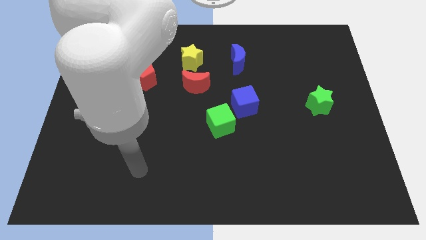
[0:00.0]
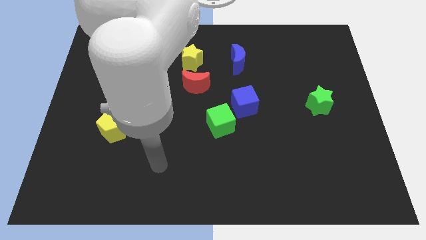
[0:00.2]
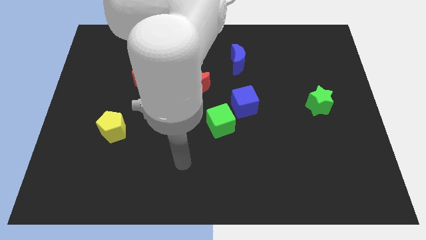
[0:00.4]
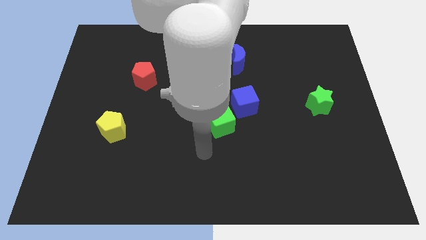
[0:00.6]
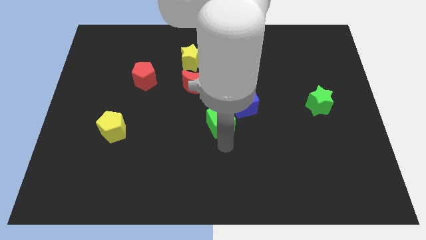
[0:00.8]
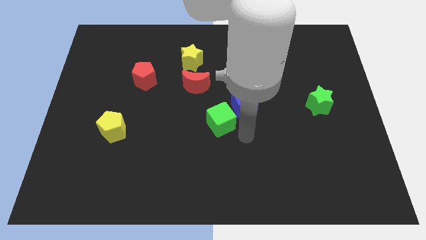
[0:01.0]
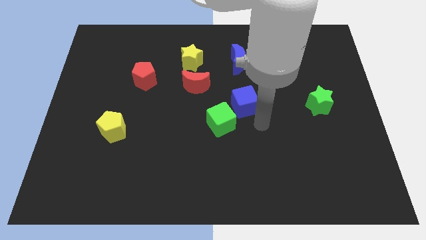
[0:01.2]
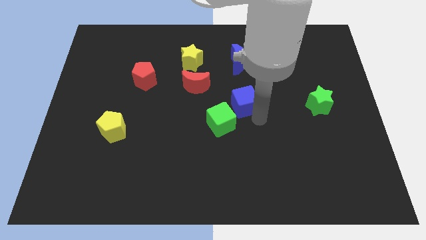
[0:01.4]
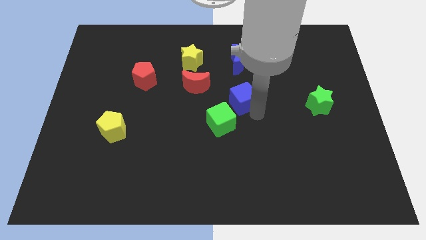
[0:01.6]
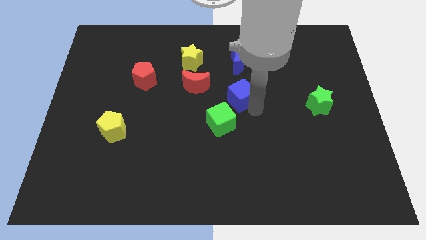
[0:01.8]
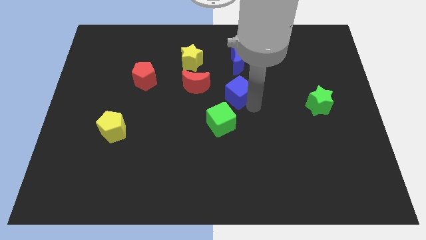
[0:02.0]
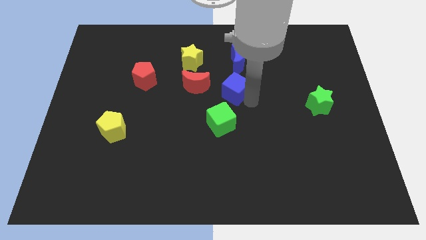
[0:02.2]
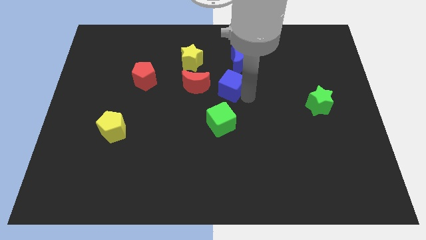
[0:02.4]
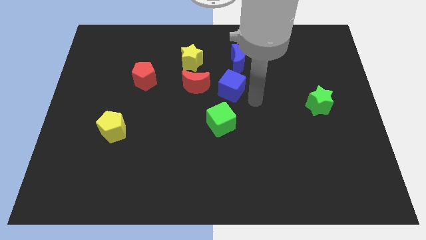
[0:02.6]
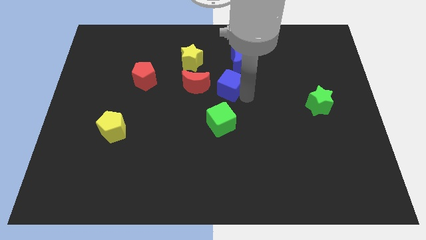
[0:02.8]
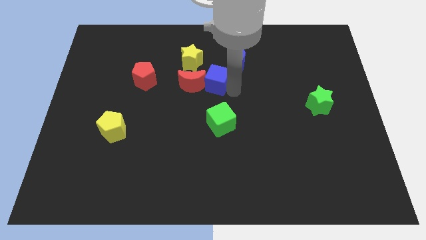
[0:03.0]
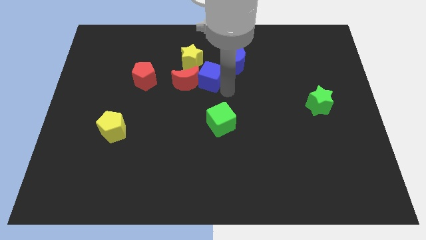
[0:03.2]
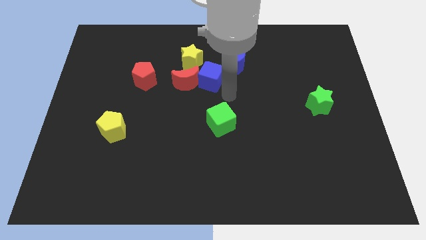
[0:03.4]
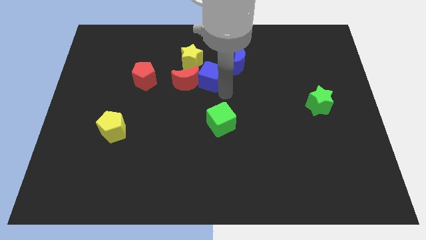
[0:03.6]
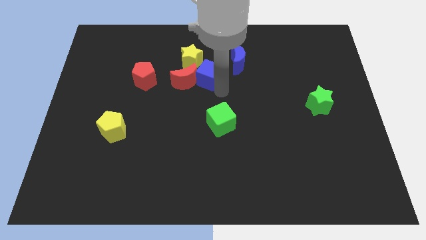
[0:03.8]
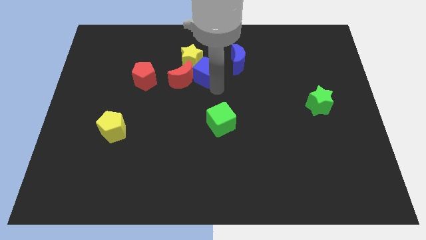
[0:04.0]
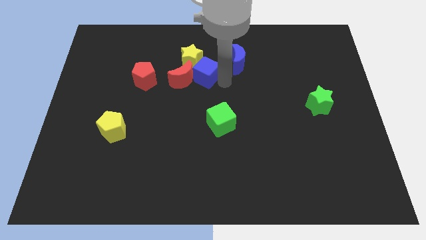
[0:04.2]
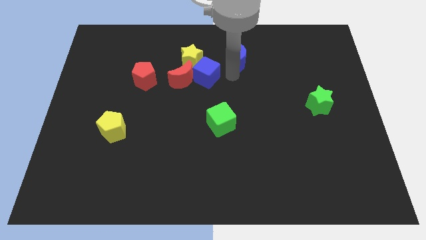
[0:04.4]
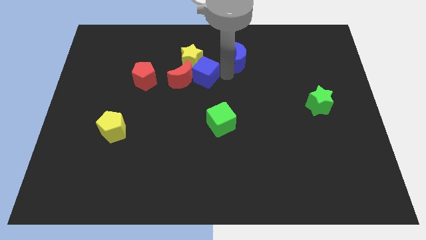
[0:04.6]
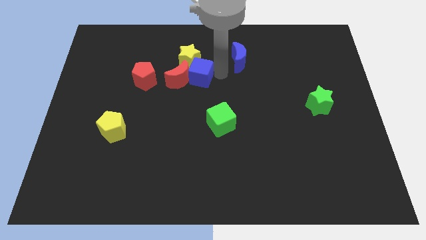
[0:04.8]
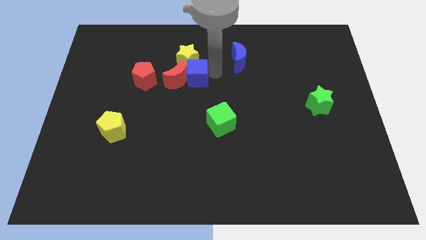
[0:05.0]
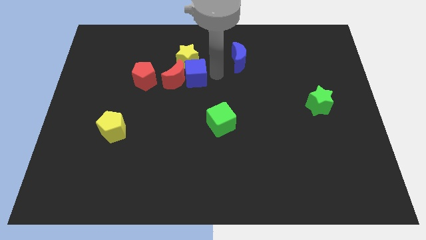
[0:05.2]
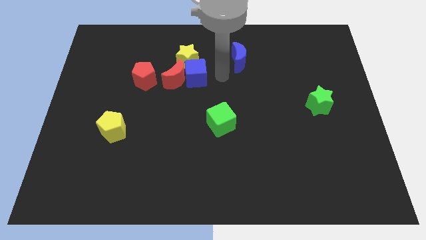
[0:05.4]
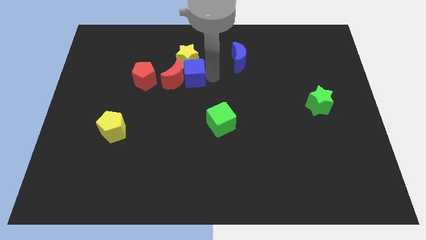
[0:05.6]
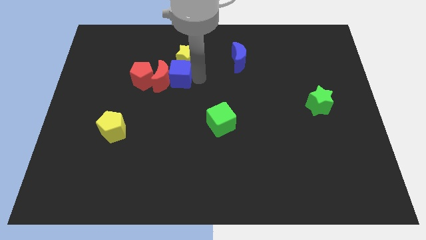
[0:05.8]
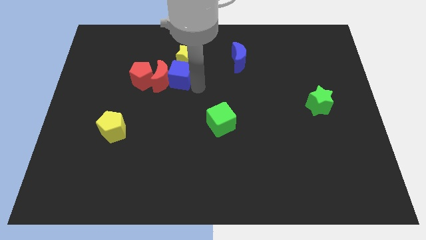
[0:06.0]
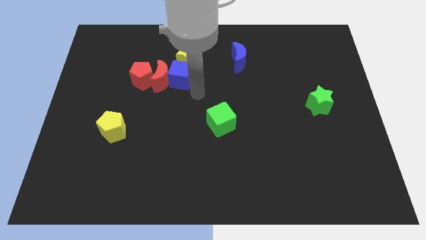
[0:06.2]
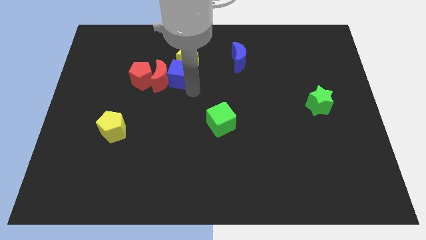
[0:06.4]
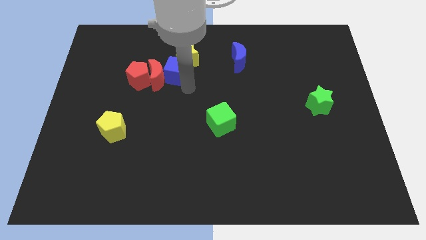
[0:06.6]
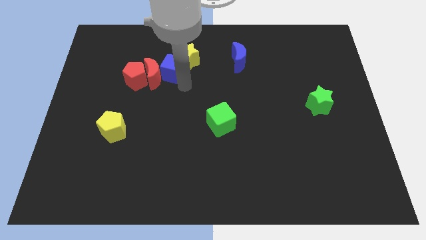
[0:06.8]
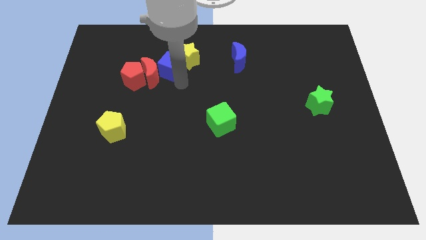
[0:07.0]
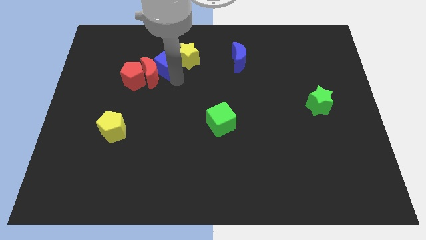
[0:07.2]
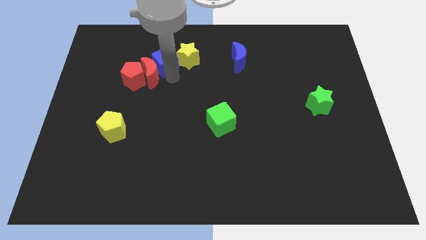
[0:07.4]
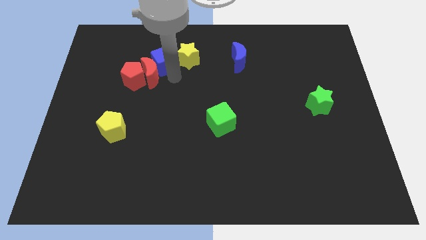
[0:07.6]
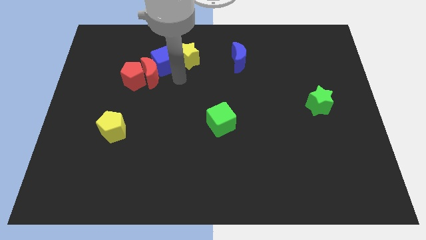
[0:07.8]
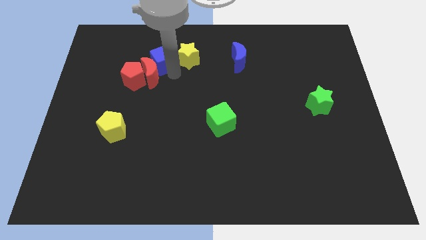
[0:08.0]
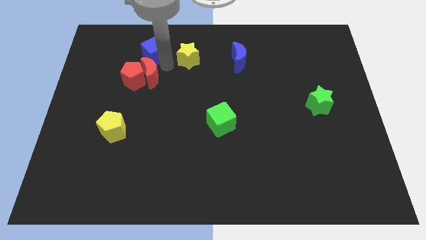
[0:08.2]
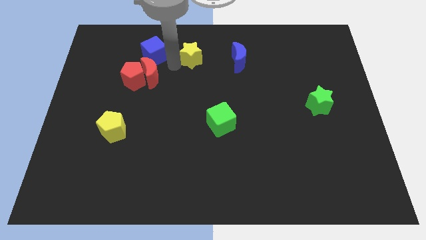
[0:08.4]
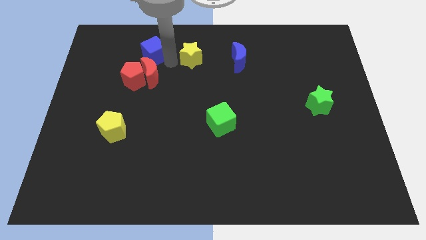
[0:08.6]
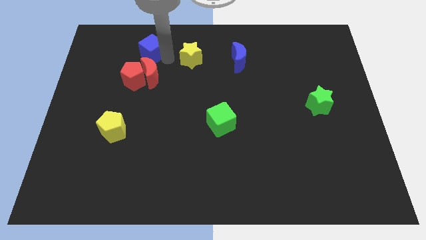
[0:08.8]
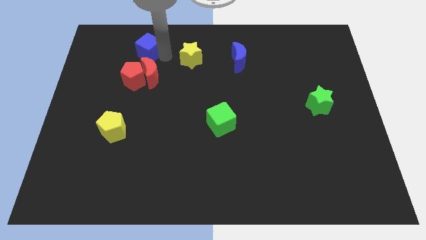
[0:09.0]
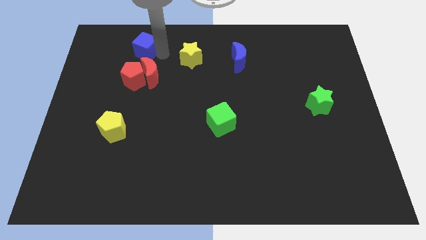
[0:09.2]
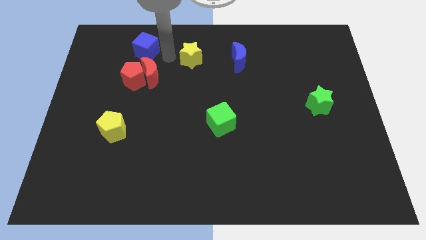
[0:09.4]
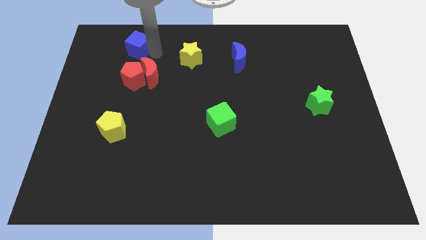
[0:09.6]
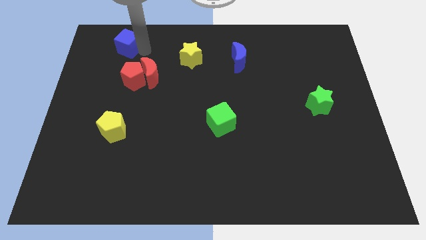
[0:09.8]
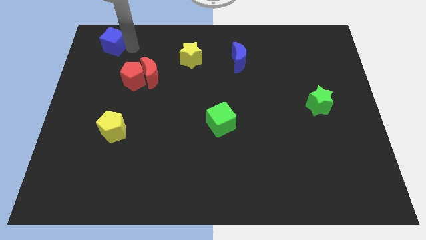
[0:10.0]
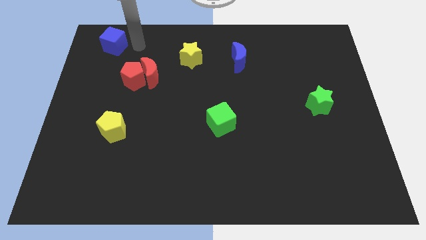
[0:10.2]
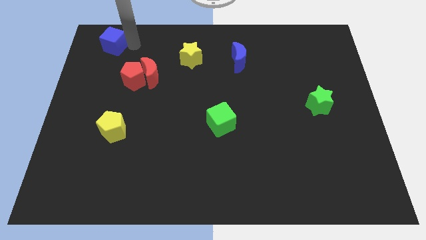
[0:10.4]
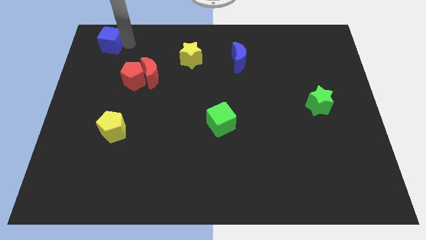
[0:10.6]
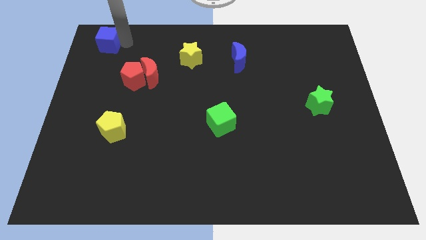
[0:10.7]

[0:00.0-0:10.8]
slide the blue cube to the top left

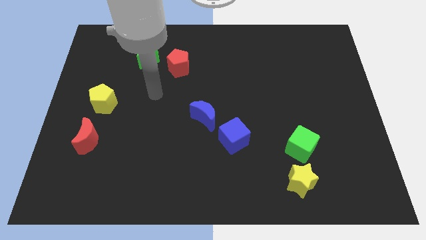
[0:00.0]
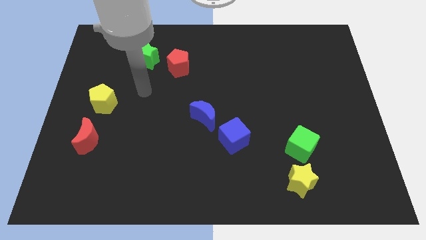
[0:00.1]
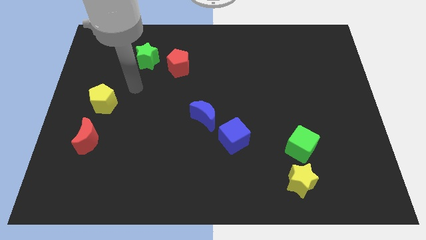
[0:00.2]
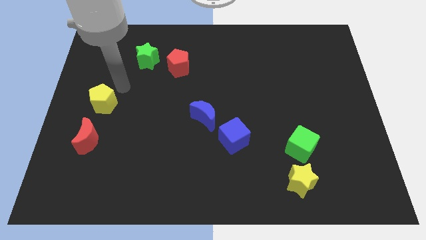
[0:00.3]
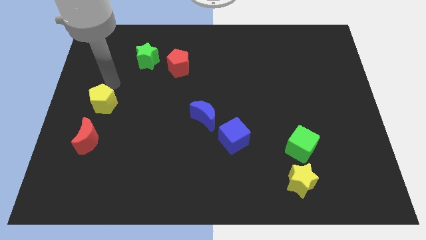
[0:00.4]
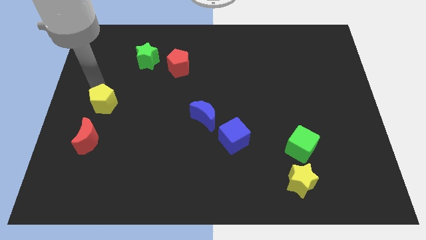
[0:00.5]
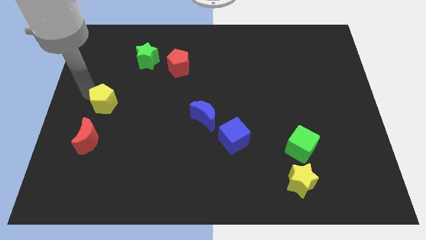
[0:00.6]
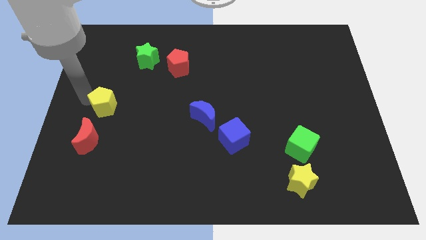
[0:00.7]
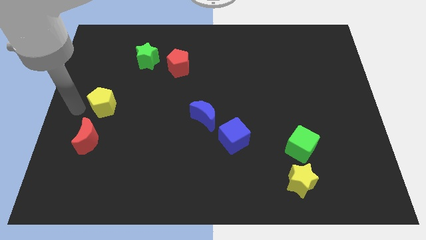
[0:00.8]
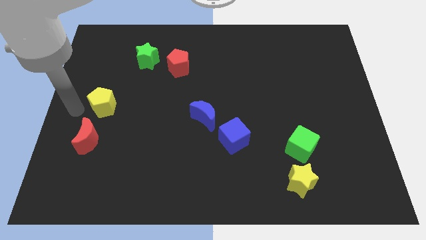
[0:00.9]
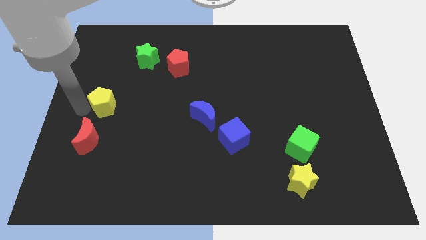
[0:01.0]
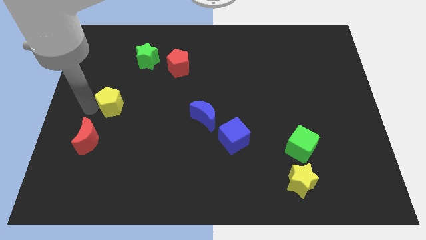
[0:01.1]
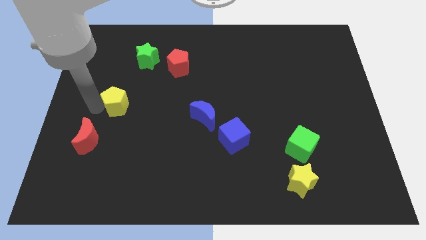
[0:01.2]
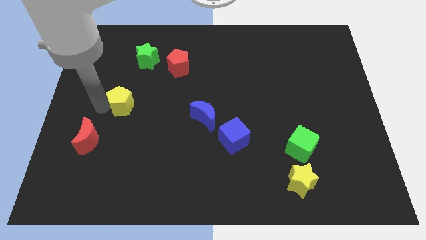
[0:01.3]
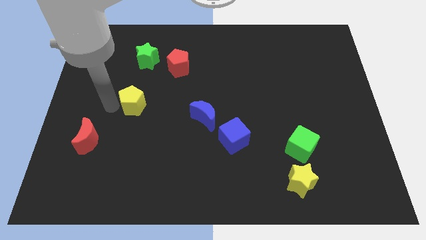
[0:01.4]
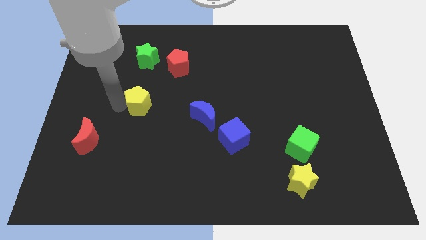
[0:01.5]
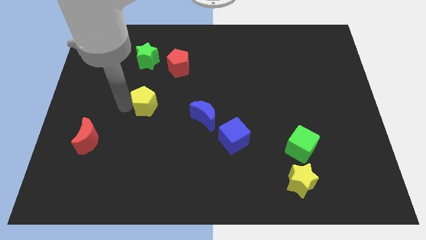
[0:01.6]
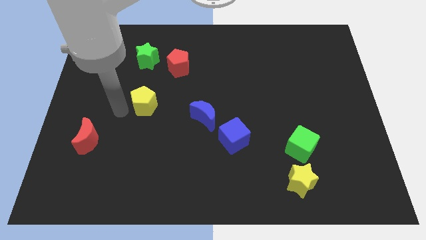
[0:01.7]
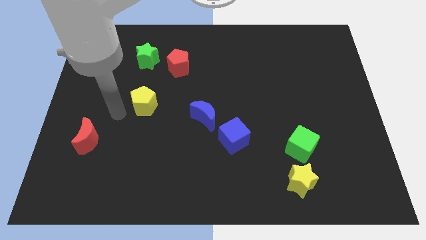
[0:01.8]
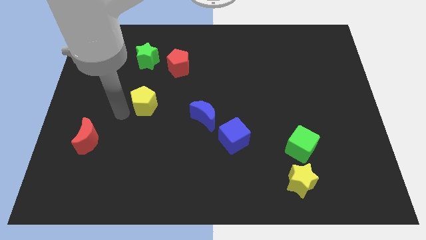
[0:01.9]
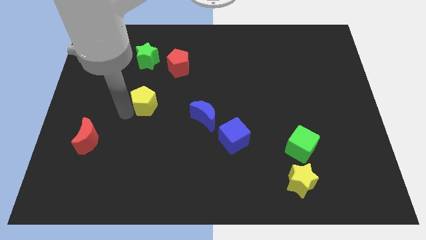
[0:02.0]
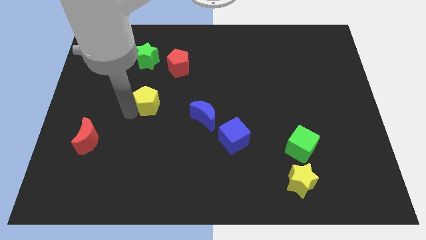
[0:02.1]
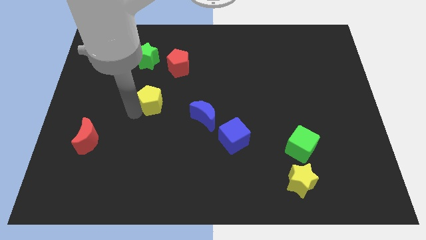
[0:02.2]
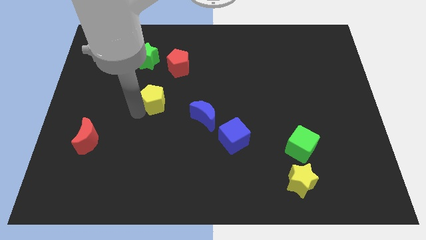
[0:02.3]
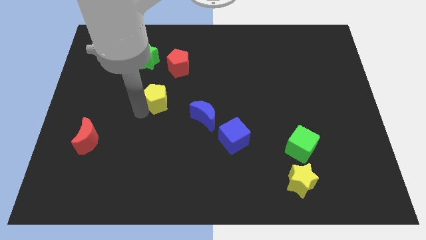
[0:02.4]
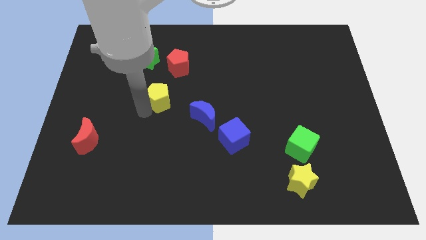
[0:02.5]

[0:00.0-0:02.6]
push the yellow pentagon to the middle of the board
